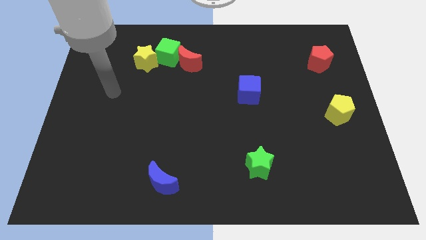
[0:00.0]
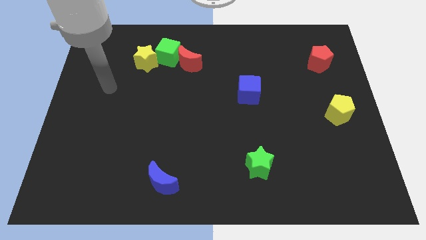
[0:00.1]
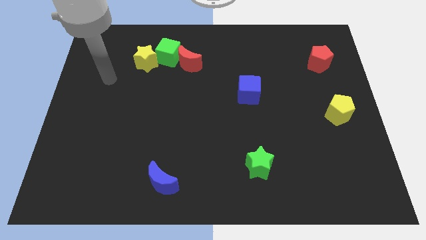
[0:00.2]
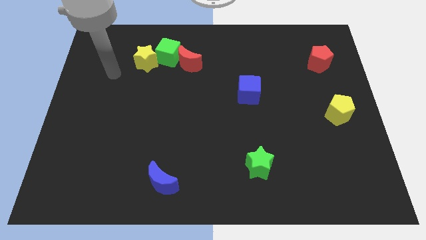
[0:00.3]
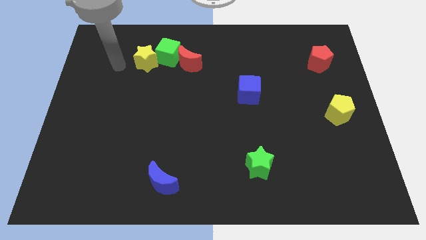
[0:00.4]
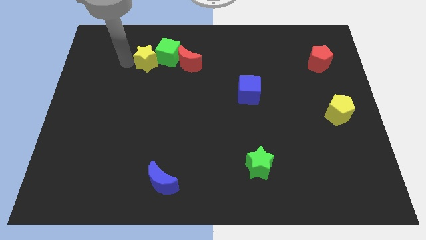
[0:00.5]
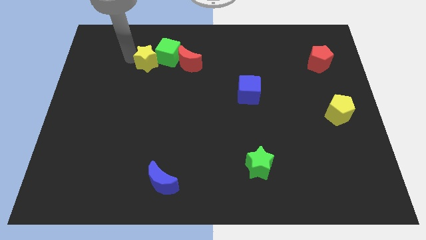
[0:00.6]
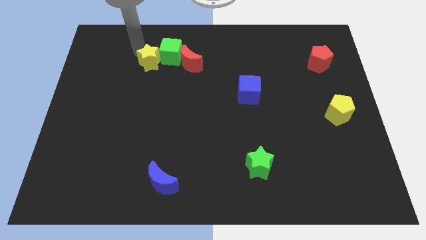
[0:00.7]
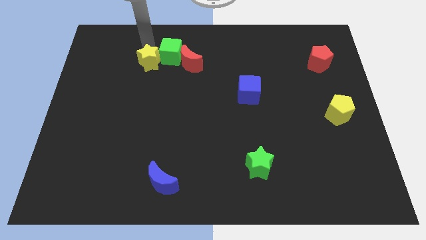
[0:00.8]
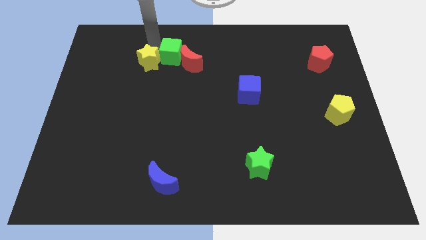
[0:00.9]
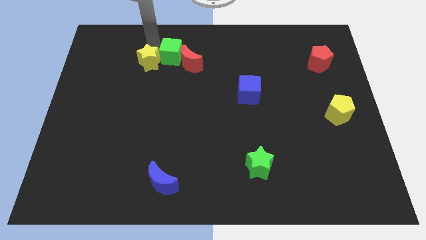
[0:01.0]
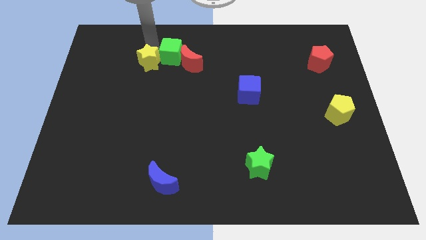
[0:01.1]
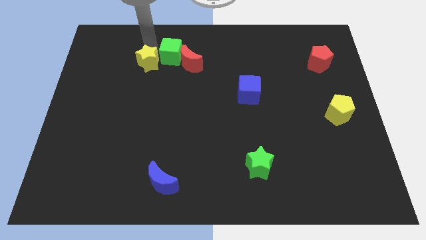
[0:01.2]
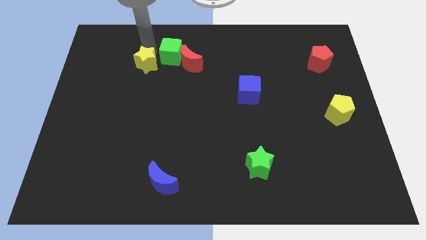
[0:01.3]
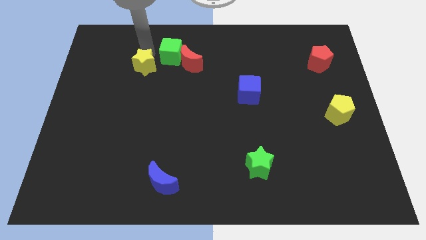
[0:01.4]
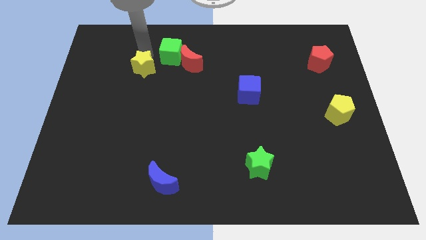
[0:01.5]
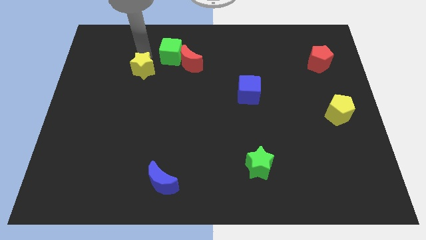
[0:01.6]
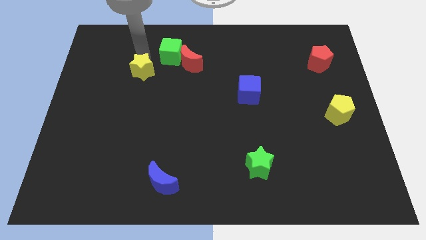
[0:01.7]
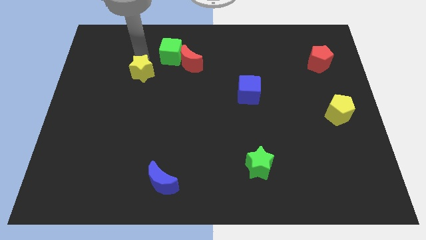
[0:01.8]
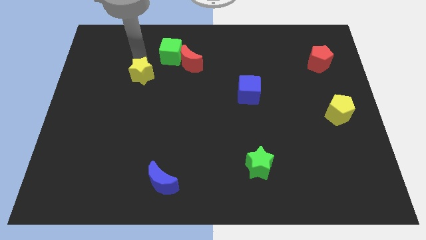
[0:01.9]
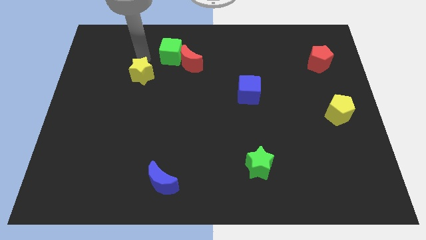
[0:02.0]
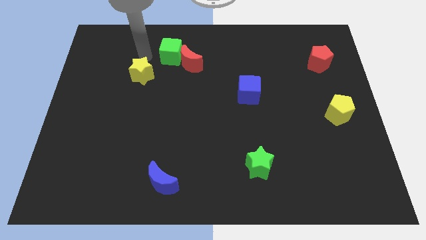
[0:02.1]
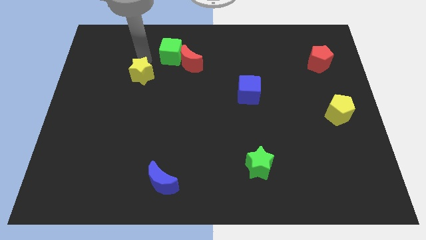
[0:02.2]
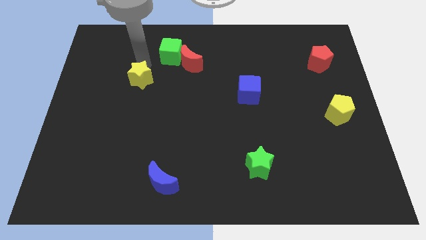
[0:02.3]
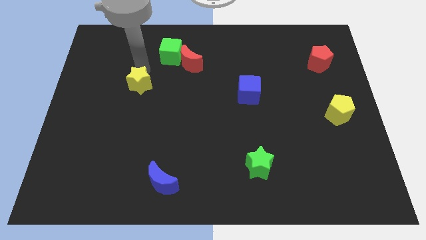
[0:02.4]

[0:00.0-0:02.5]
move the yellow star downwards a little bit

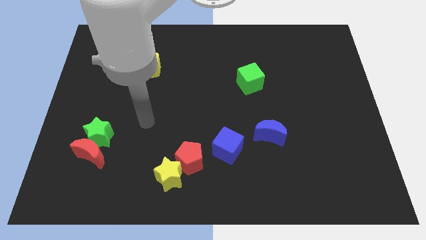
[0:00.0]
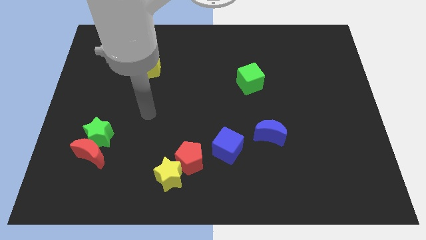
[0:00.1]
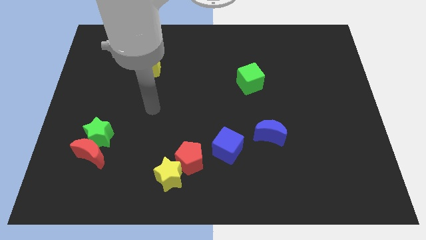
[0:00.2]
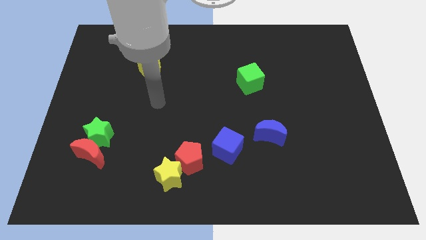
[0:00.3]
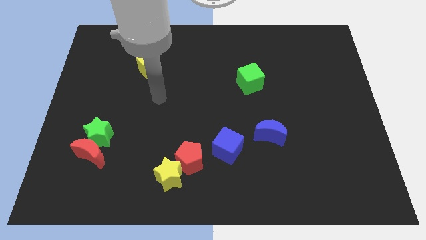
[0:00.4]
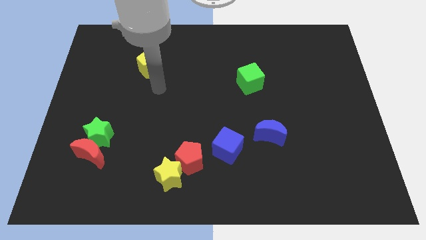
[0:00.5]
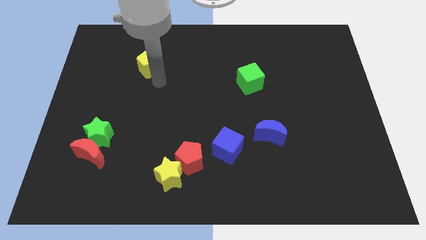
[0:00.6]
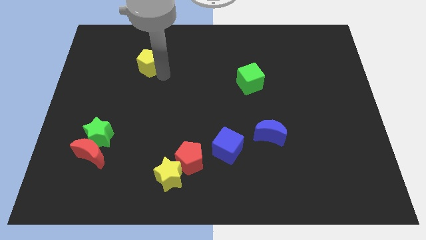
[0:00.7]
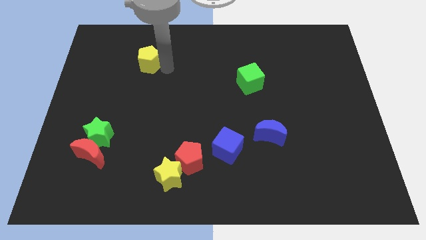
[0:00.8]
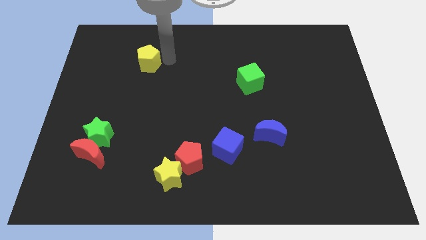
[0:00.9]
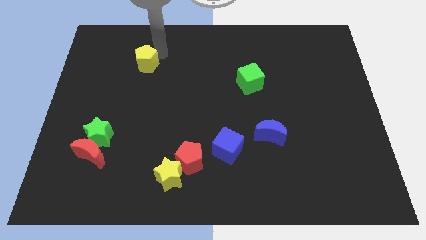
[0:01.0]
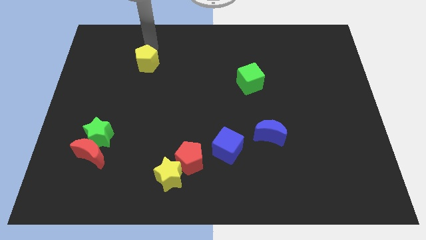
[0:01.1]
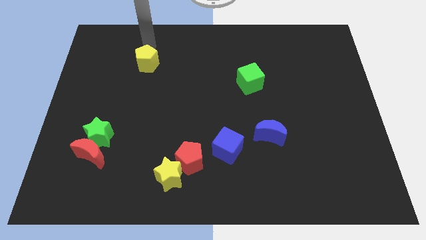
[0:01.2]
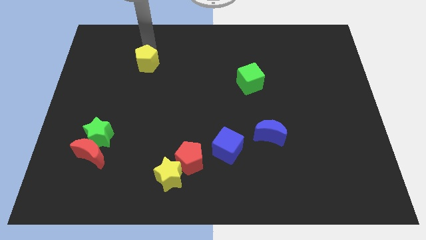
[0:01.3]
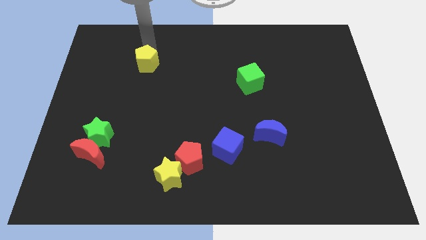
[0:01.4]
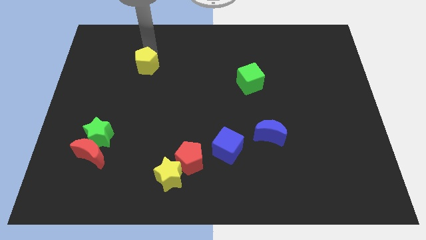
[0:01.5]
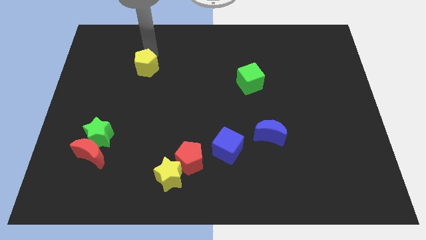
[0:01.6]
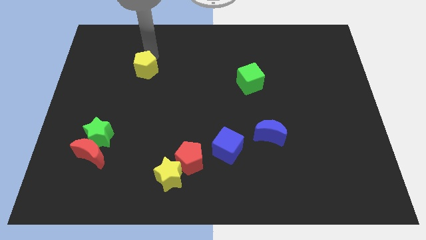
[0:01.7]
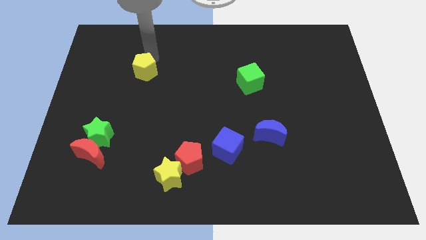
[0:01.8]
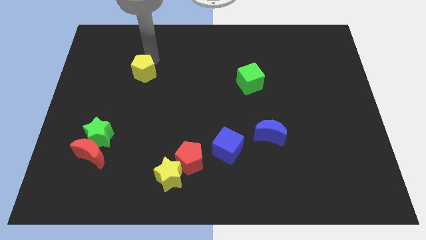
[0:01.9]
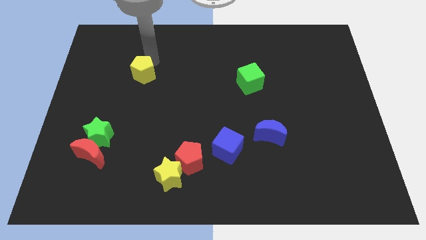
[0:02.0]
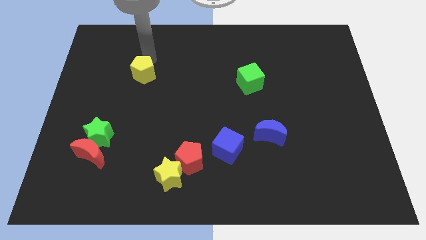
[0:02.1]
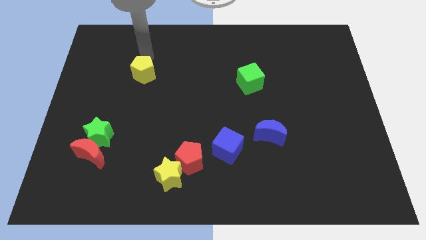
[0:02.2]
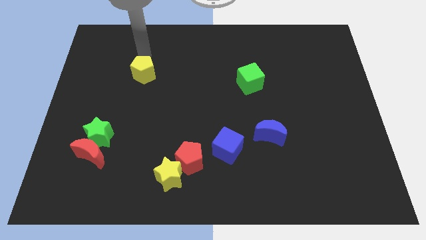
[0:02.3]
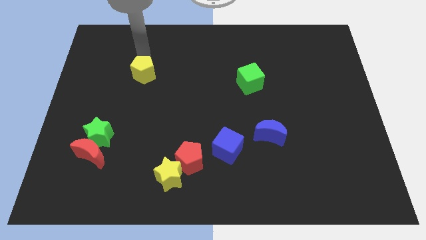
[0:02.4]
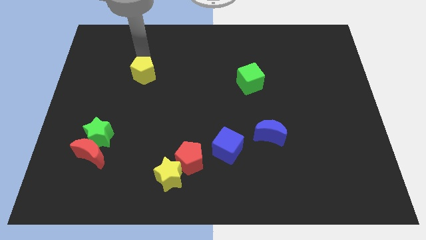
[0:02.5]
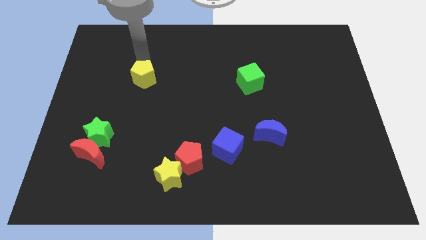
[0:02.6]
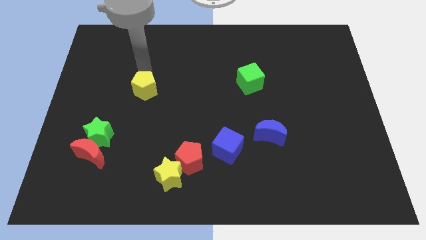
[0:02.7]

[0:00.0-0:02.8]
slightly push the yellow pentagon down

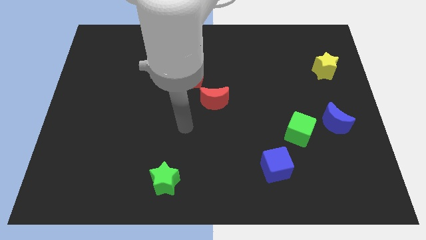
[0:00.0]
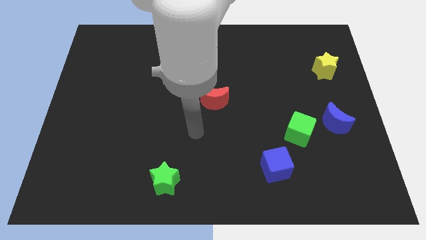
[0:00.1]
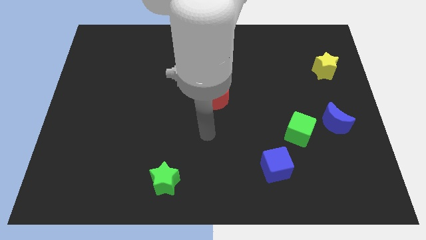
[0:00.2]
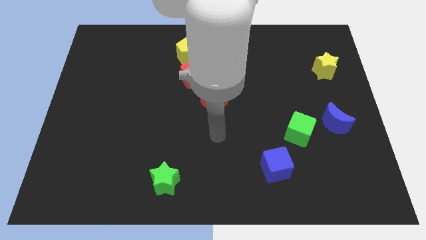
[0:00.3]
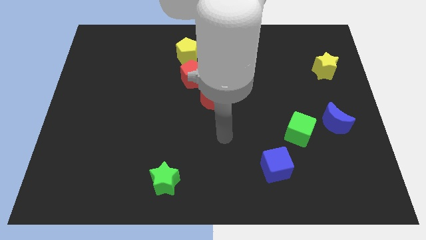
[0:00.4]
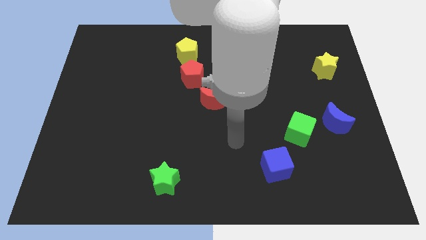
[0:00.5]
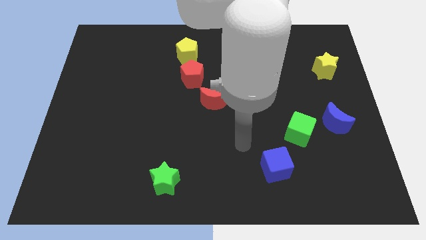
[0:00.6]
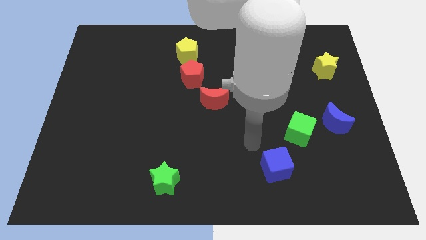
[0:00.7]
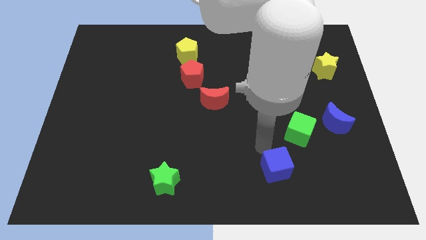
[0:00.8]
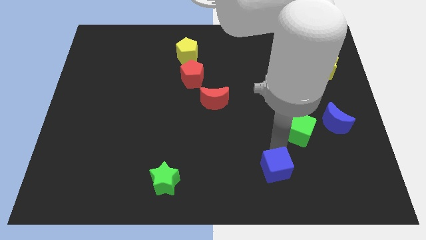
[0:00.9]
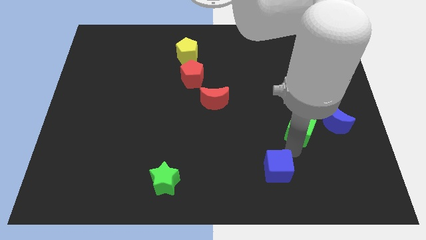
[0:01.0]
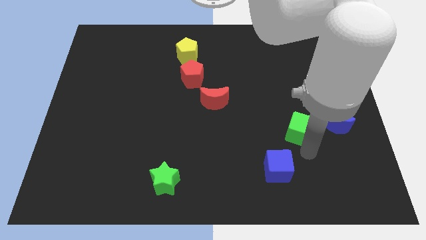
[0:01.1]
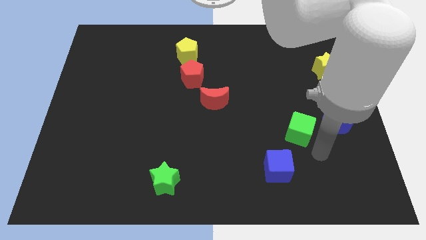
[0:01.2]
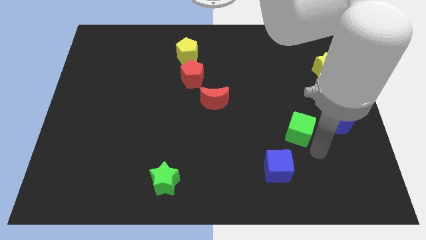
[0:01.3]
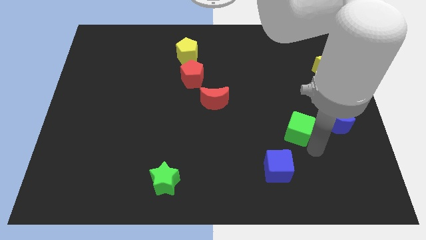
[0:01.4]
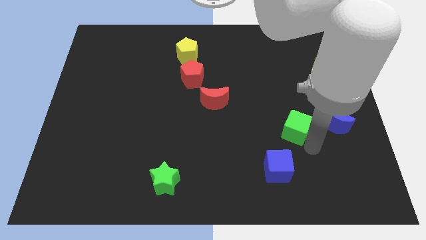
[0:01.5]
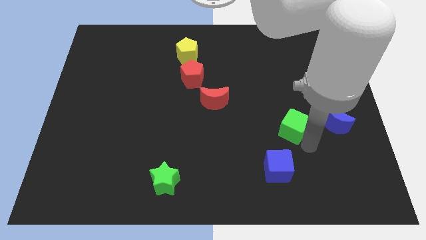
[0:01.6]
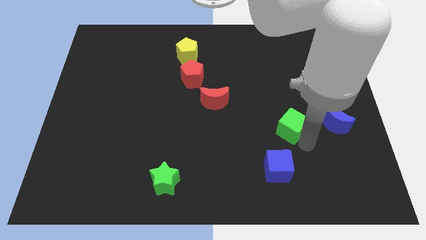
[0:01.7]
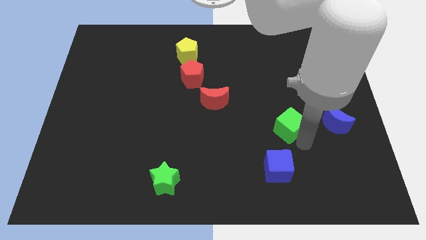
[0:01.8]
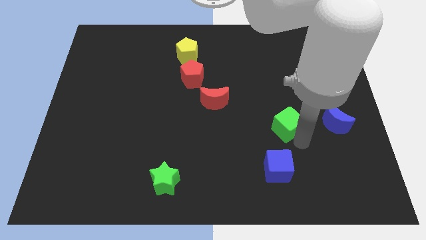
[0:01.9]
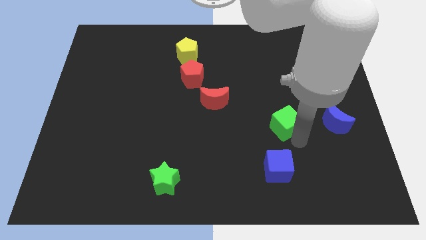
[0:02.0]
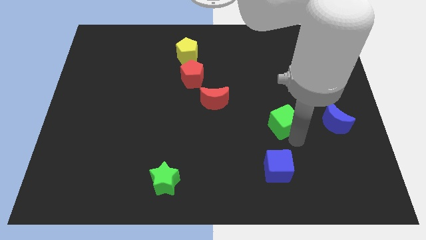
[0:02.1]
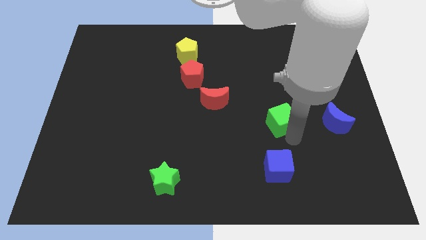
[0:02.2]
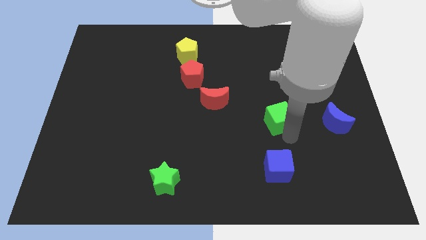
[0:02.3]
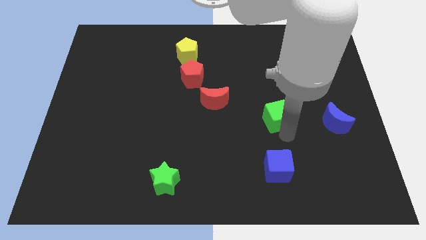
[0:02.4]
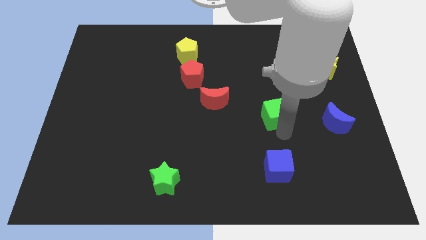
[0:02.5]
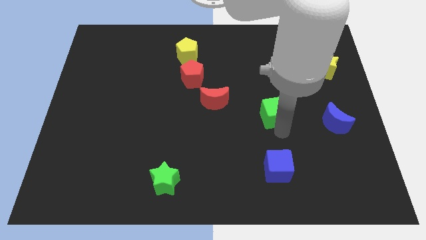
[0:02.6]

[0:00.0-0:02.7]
slightly slide the green cube up and left
